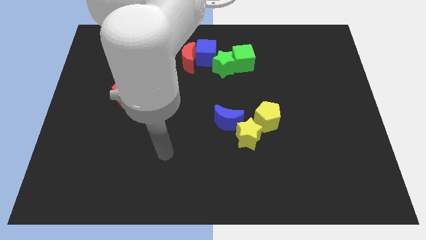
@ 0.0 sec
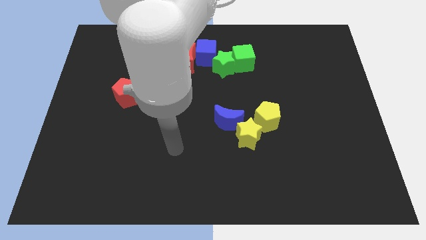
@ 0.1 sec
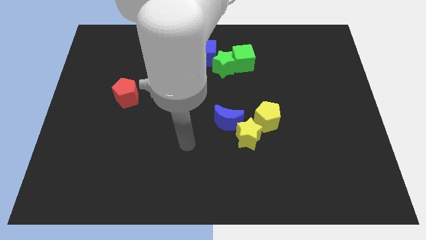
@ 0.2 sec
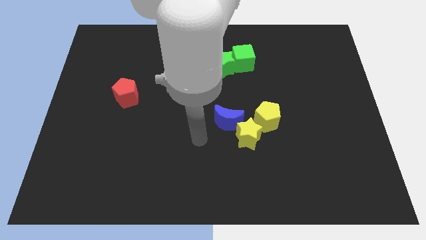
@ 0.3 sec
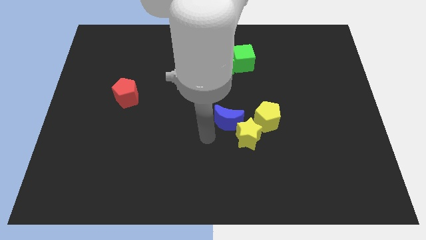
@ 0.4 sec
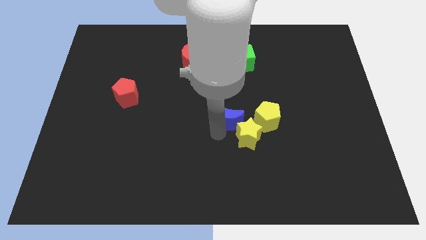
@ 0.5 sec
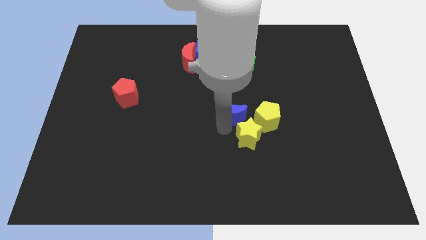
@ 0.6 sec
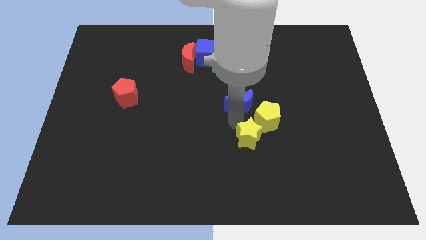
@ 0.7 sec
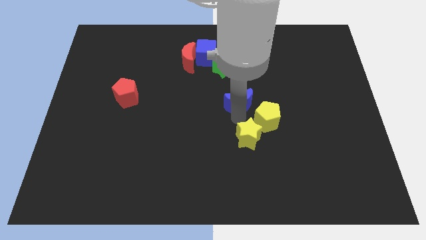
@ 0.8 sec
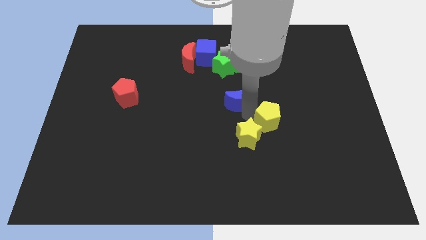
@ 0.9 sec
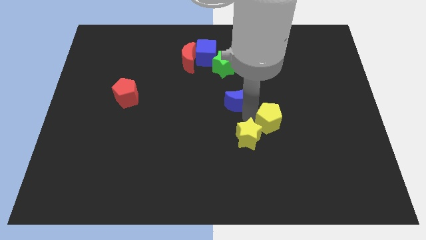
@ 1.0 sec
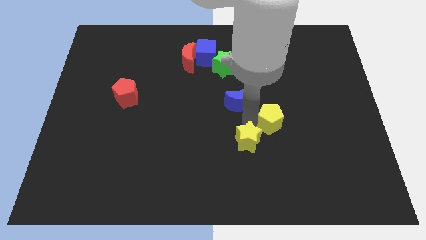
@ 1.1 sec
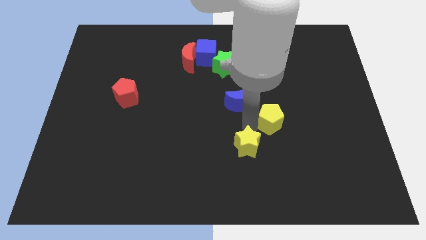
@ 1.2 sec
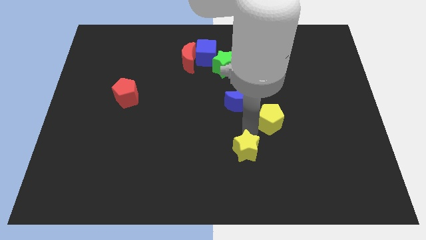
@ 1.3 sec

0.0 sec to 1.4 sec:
move the yellow star away from the blue moon and yellow pentagon

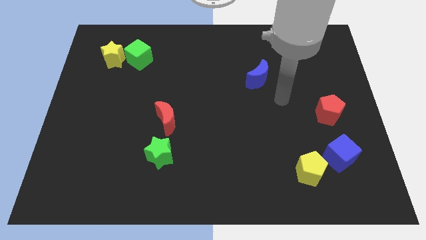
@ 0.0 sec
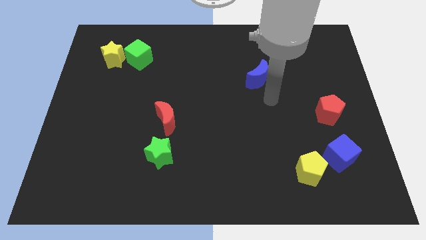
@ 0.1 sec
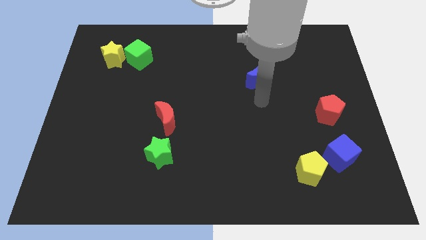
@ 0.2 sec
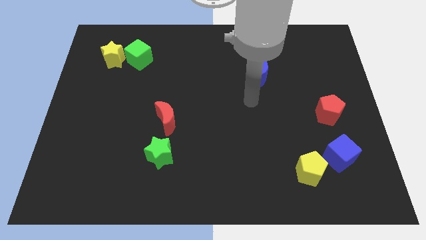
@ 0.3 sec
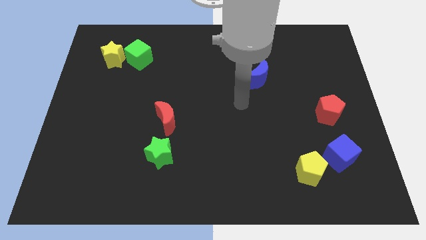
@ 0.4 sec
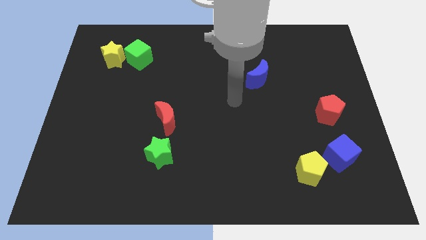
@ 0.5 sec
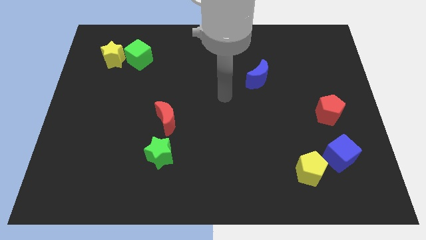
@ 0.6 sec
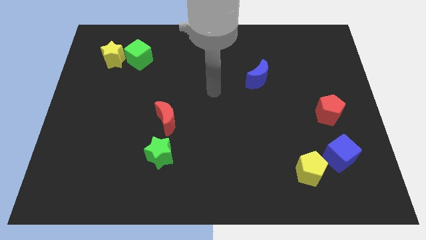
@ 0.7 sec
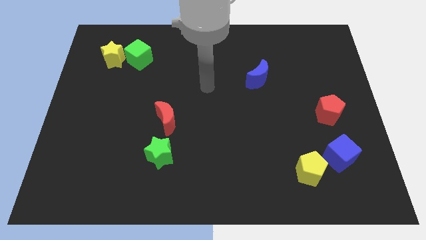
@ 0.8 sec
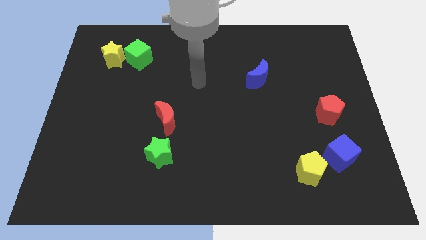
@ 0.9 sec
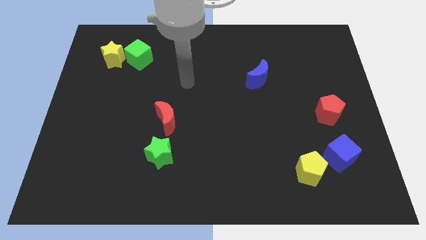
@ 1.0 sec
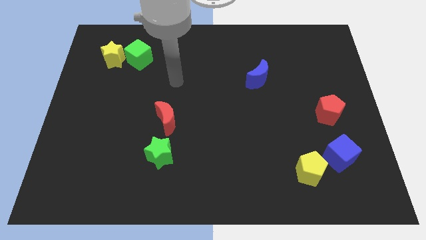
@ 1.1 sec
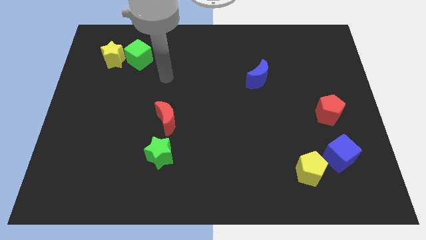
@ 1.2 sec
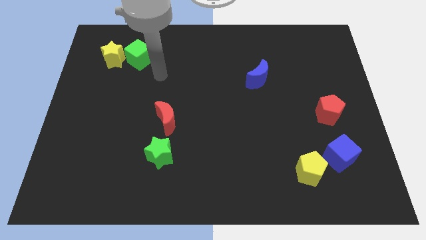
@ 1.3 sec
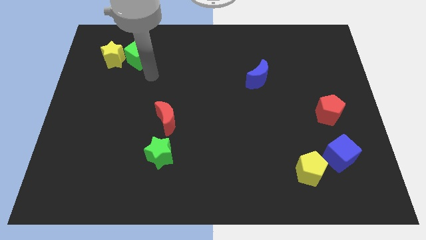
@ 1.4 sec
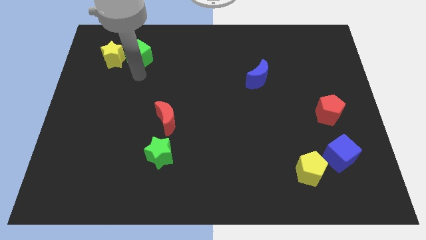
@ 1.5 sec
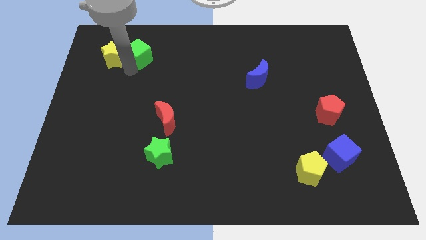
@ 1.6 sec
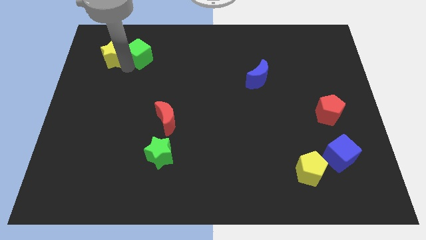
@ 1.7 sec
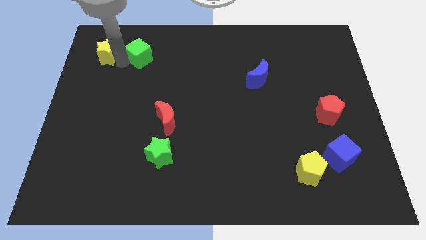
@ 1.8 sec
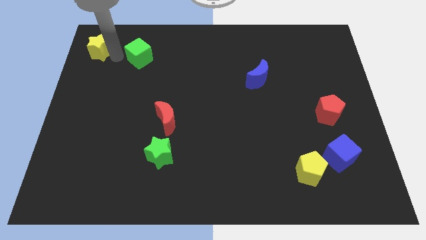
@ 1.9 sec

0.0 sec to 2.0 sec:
pull the green cube apart from the yellow star

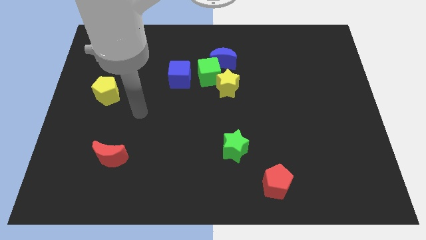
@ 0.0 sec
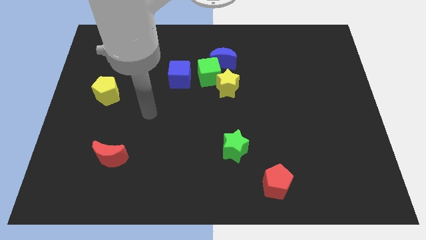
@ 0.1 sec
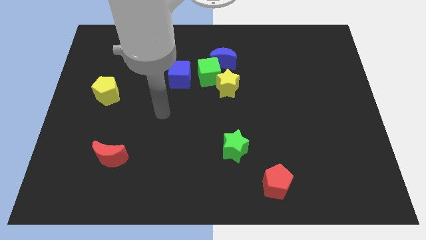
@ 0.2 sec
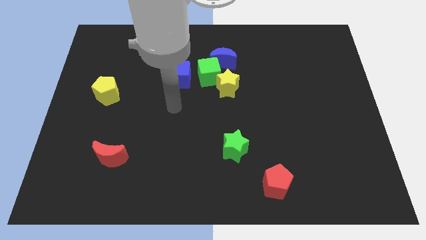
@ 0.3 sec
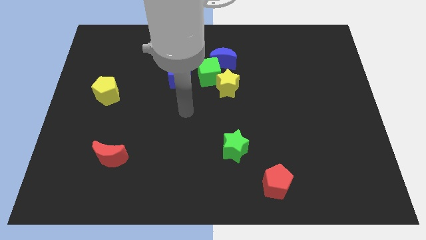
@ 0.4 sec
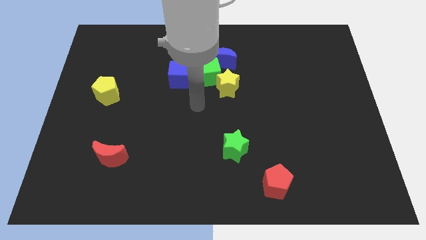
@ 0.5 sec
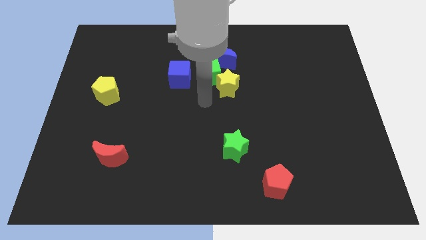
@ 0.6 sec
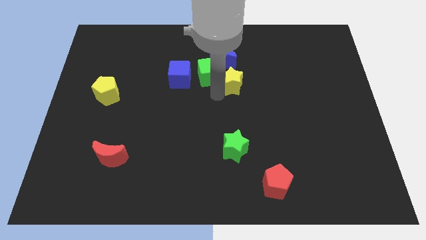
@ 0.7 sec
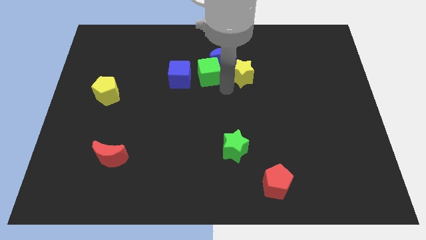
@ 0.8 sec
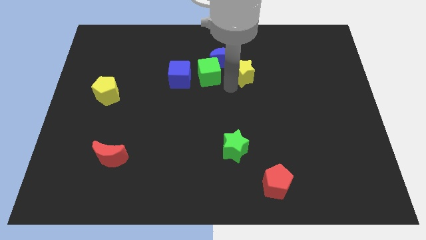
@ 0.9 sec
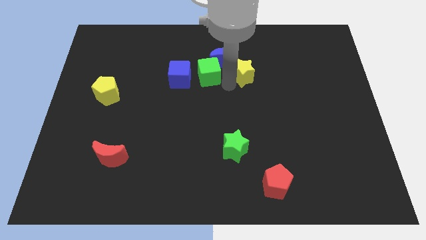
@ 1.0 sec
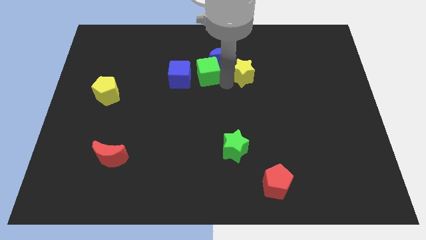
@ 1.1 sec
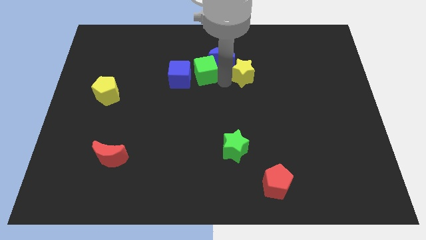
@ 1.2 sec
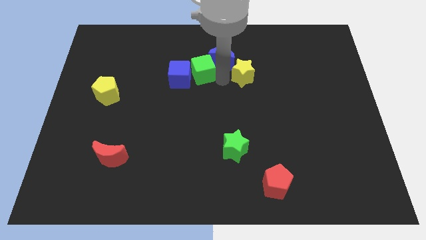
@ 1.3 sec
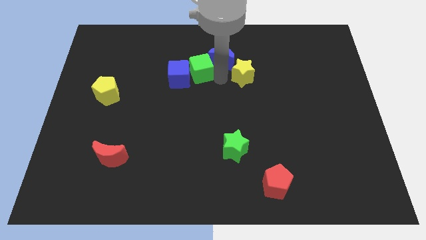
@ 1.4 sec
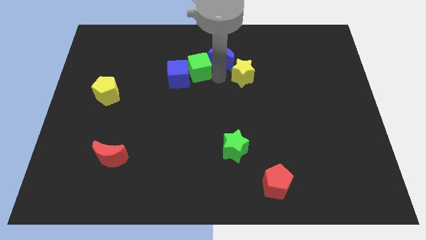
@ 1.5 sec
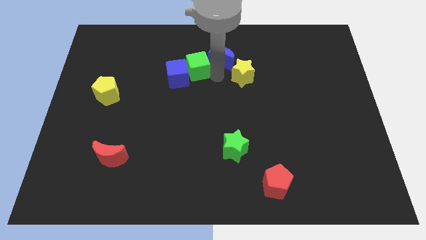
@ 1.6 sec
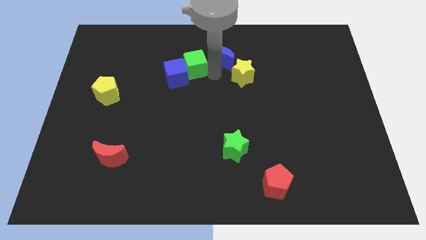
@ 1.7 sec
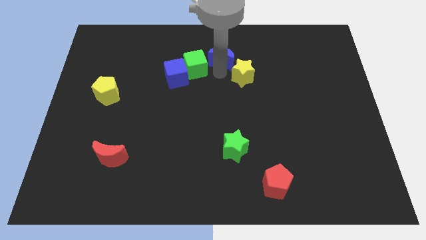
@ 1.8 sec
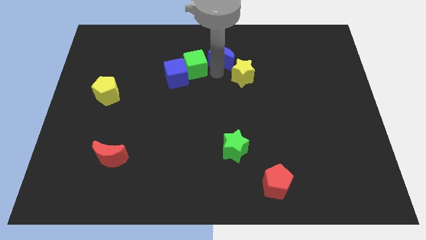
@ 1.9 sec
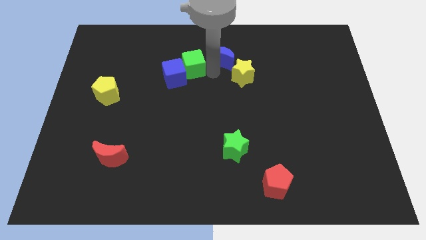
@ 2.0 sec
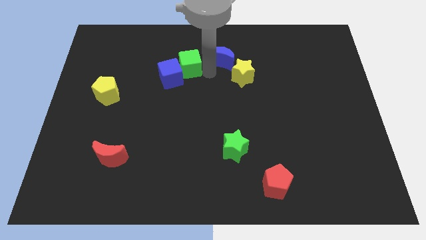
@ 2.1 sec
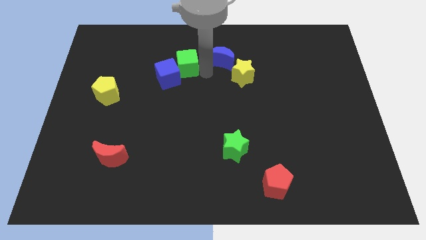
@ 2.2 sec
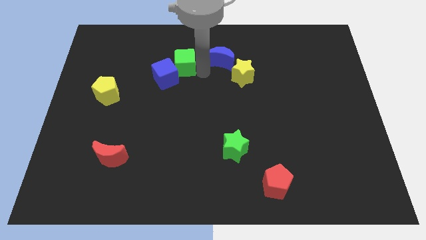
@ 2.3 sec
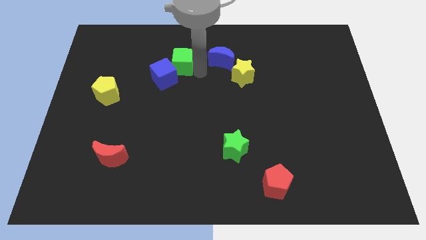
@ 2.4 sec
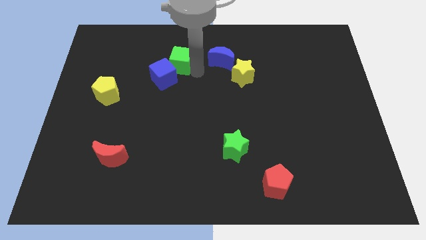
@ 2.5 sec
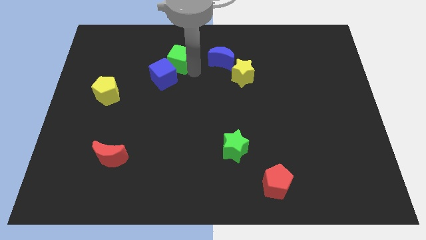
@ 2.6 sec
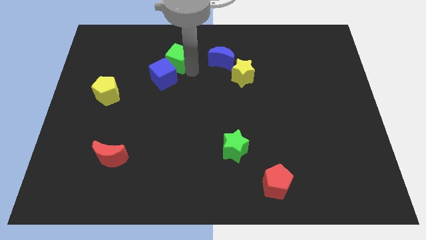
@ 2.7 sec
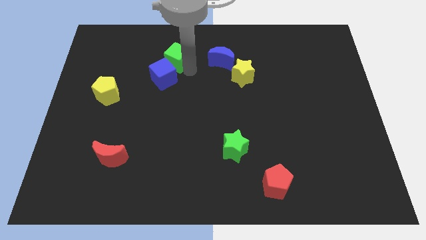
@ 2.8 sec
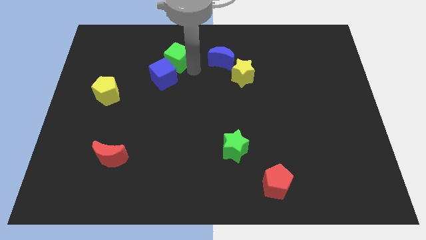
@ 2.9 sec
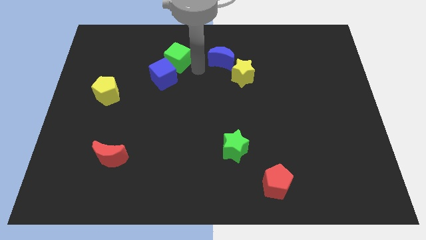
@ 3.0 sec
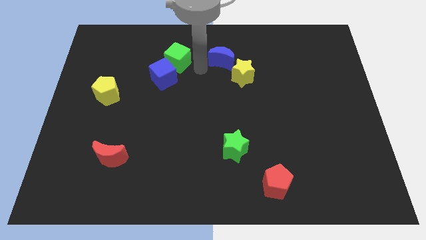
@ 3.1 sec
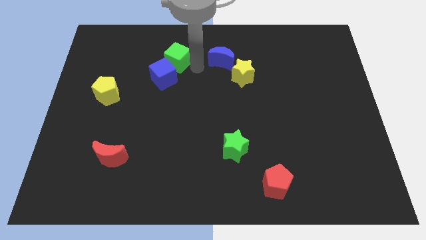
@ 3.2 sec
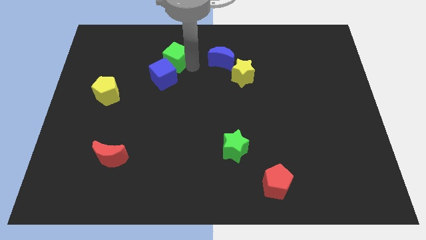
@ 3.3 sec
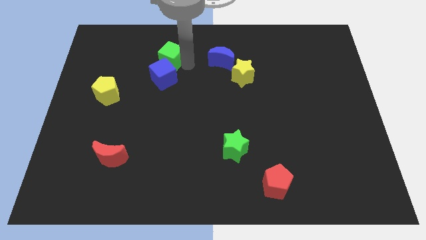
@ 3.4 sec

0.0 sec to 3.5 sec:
pull the green cube apart from the yellow star, blue moon, and blue cube

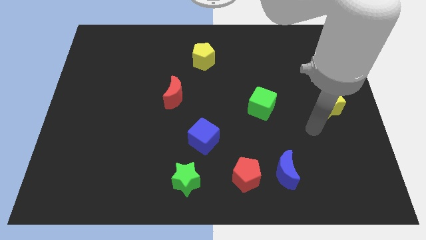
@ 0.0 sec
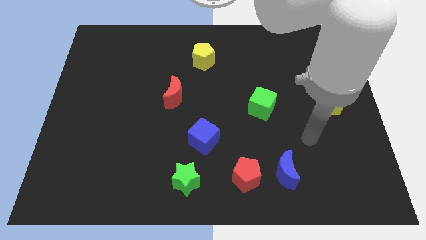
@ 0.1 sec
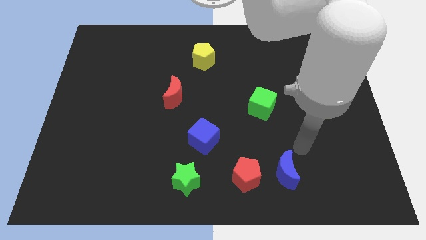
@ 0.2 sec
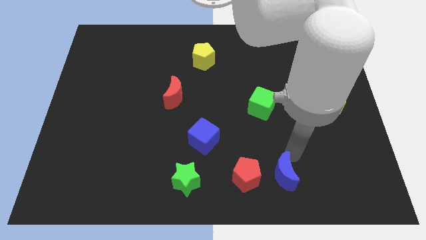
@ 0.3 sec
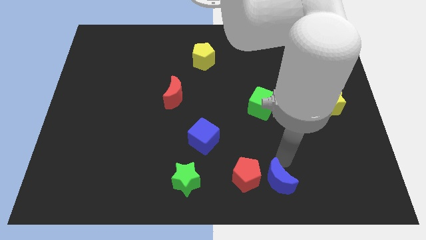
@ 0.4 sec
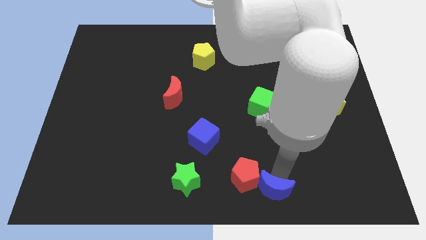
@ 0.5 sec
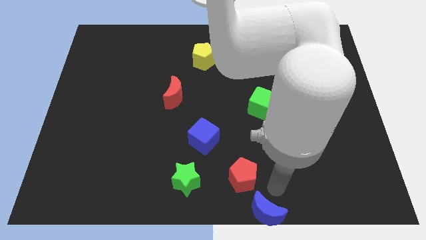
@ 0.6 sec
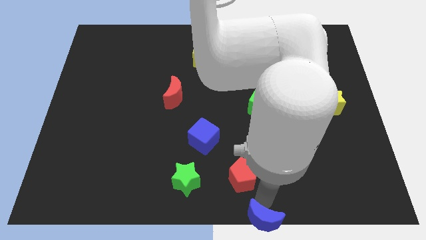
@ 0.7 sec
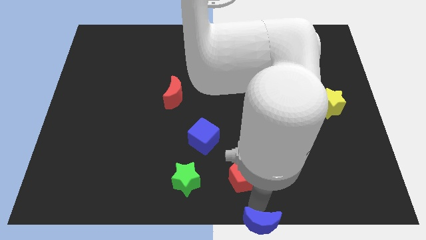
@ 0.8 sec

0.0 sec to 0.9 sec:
move the red pentagon away from the blue moon

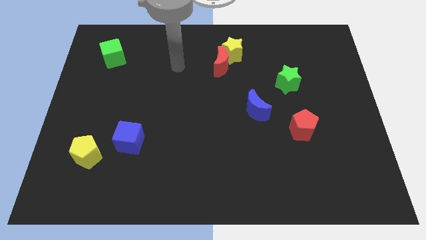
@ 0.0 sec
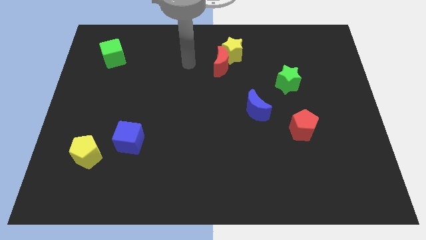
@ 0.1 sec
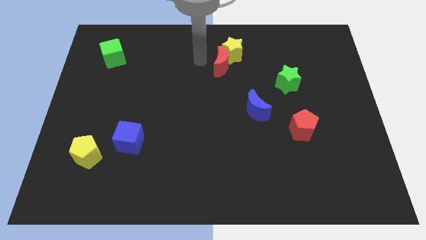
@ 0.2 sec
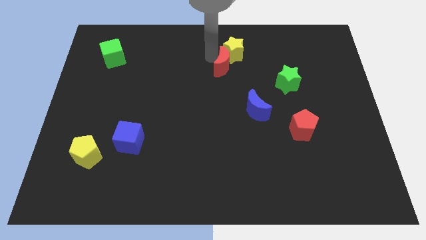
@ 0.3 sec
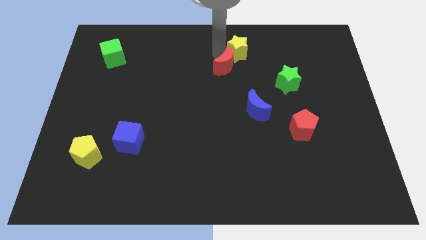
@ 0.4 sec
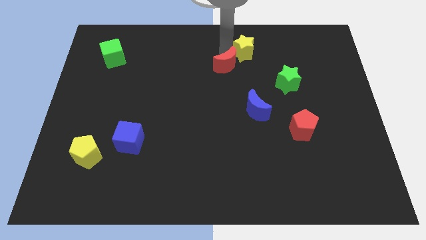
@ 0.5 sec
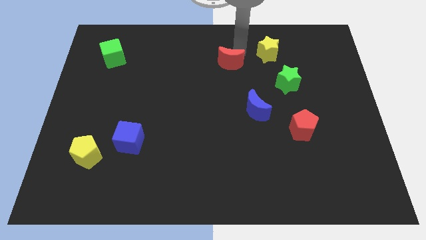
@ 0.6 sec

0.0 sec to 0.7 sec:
move the red moon away from the yellow star

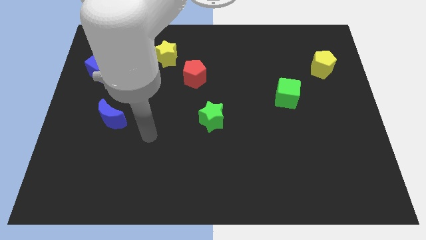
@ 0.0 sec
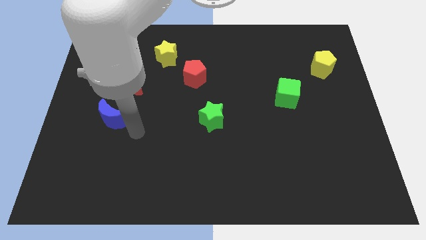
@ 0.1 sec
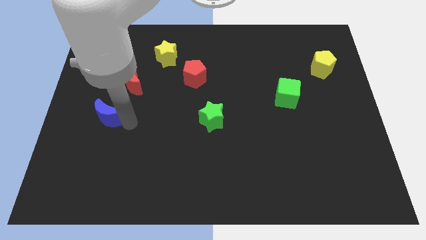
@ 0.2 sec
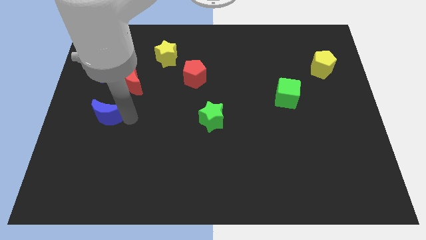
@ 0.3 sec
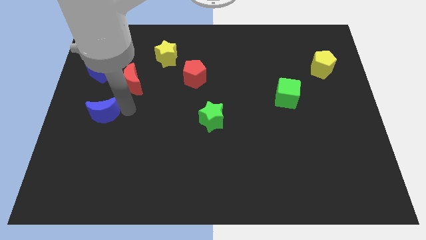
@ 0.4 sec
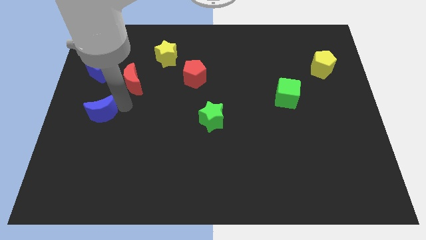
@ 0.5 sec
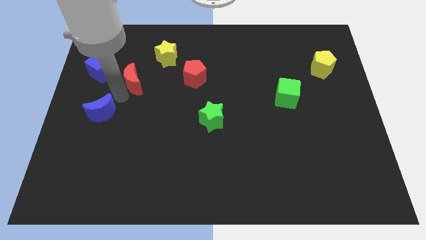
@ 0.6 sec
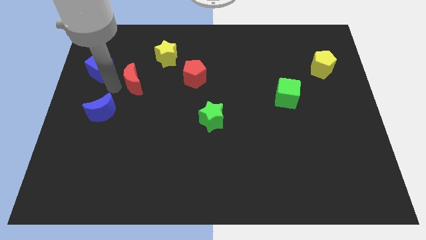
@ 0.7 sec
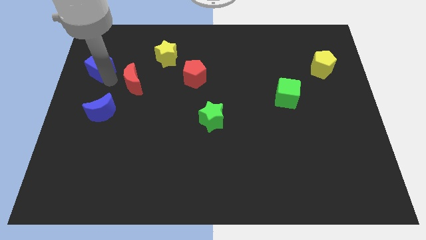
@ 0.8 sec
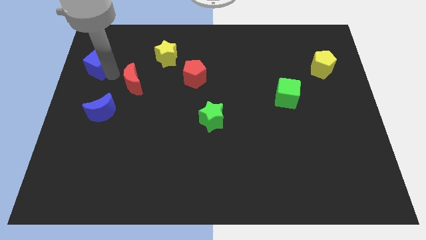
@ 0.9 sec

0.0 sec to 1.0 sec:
move the red moon away from the blue cube
